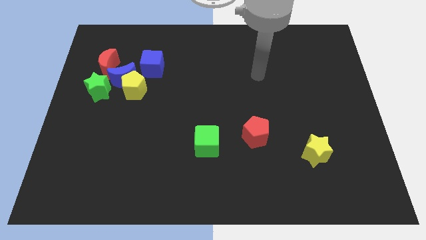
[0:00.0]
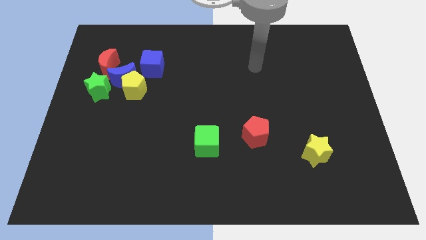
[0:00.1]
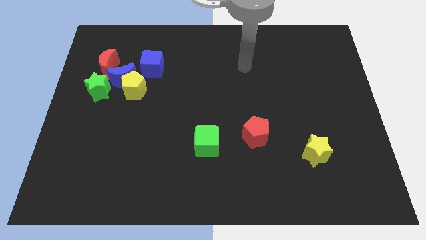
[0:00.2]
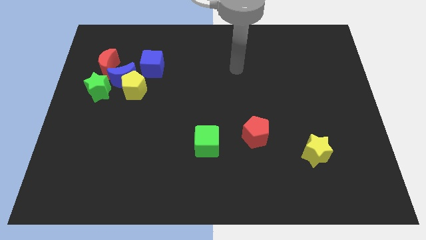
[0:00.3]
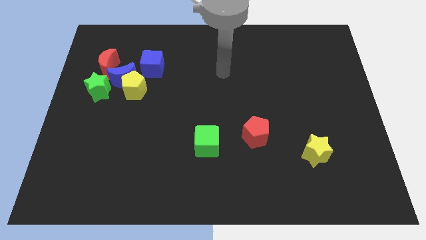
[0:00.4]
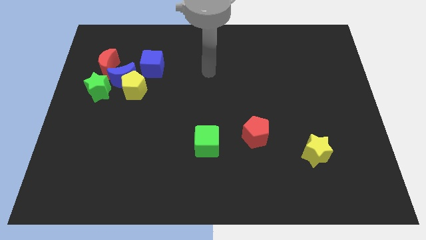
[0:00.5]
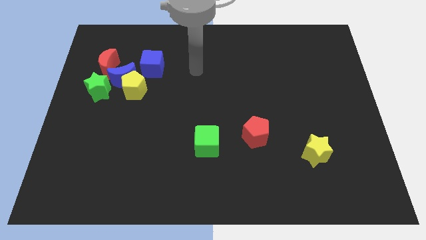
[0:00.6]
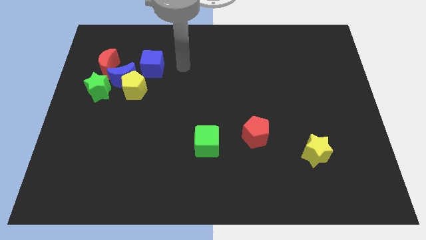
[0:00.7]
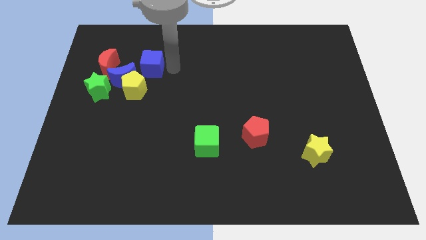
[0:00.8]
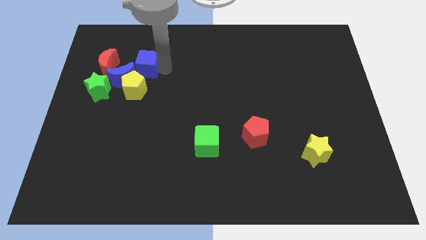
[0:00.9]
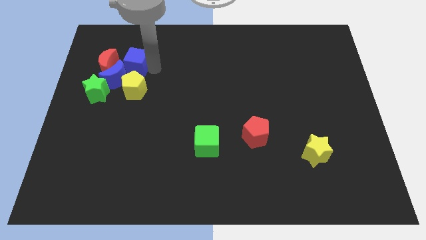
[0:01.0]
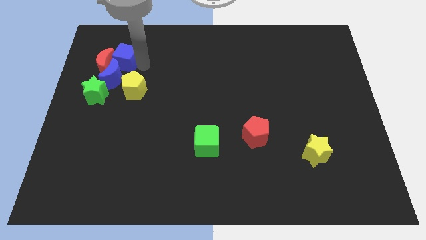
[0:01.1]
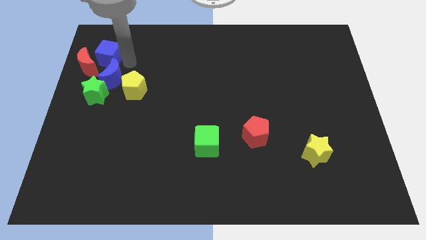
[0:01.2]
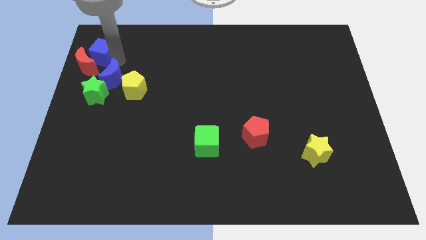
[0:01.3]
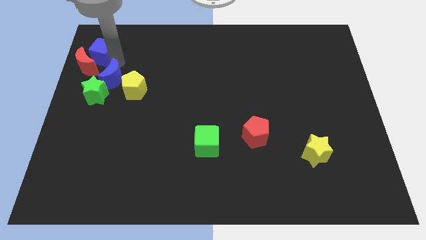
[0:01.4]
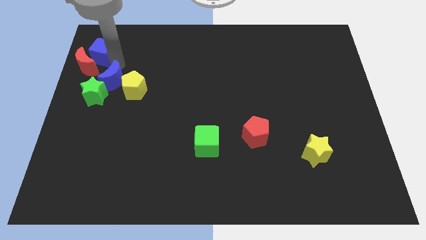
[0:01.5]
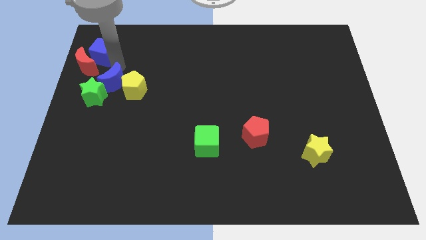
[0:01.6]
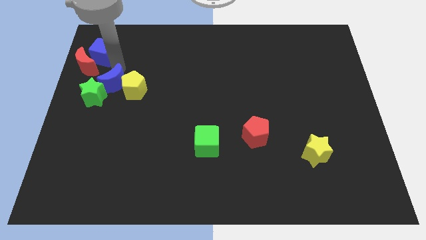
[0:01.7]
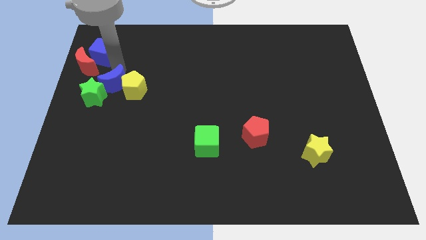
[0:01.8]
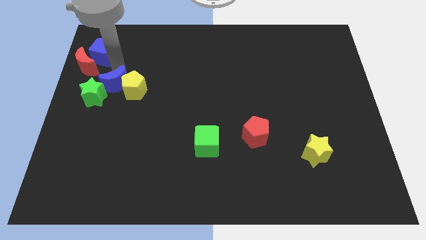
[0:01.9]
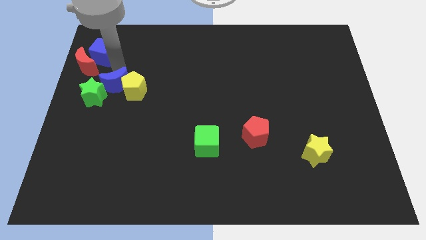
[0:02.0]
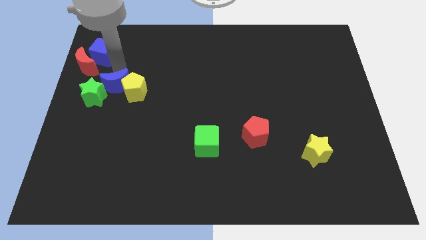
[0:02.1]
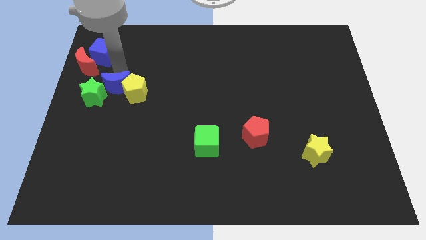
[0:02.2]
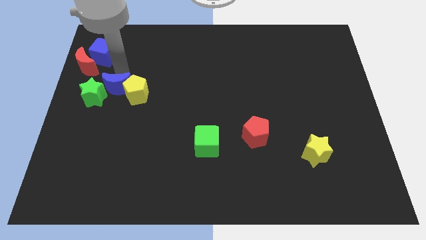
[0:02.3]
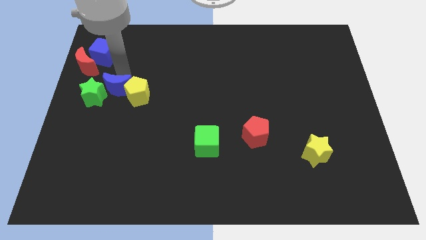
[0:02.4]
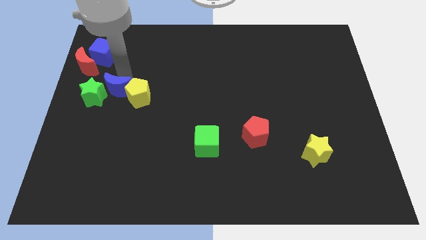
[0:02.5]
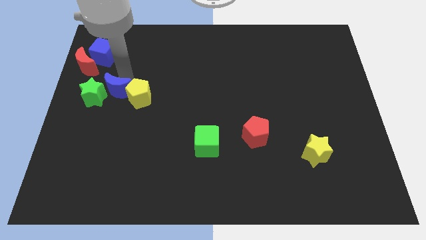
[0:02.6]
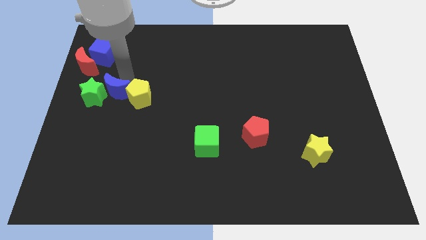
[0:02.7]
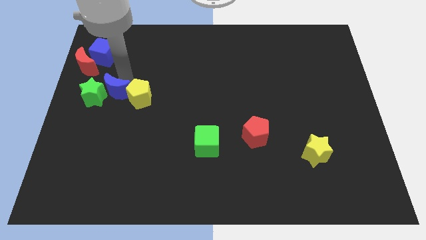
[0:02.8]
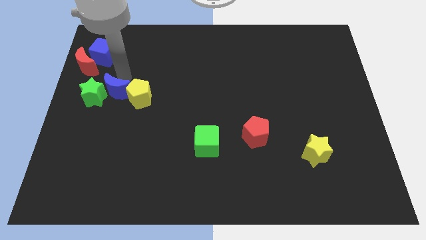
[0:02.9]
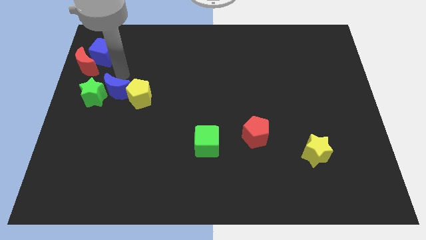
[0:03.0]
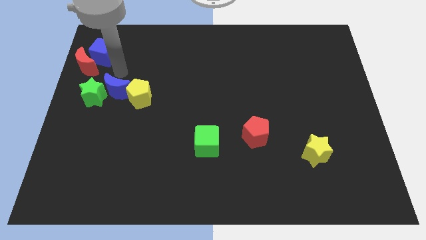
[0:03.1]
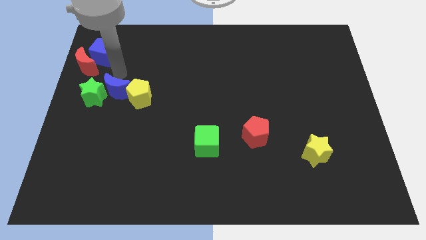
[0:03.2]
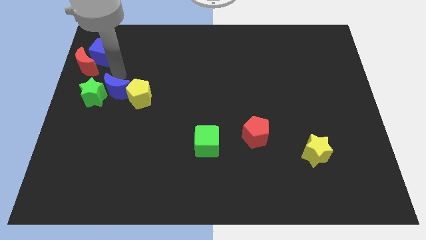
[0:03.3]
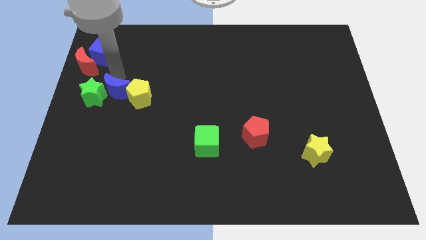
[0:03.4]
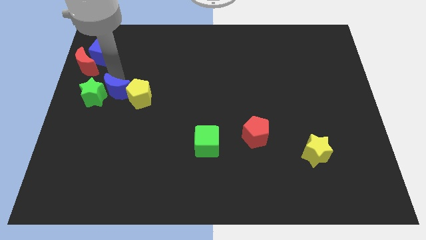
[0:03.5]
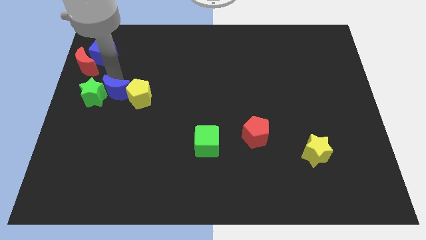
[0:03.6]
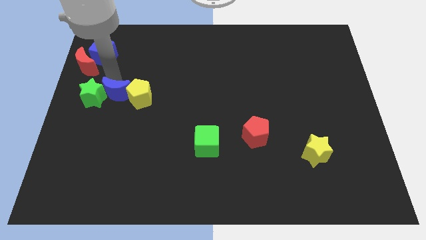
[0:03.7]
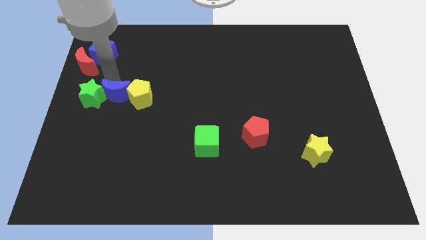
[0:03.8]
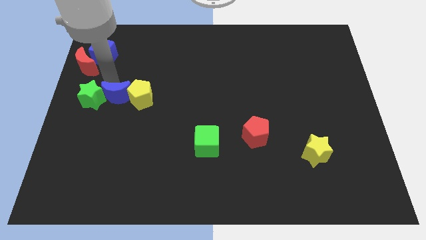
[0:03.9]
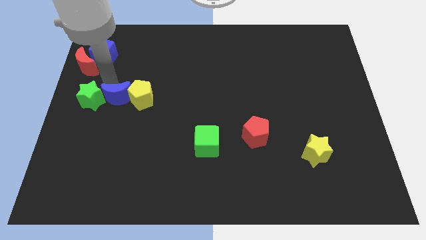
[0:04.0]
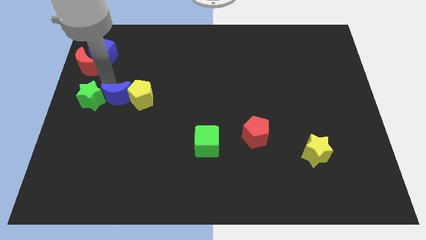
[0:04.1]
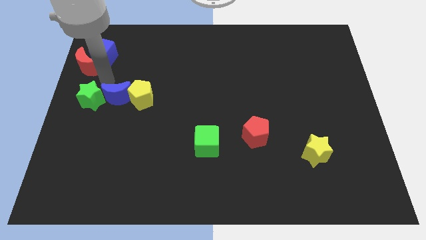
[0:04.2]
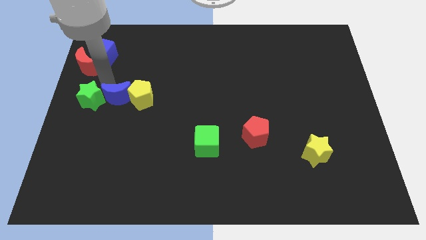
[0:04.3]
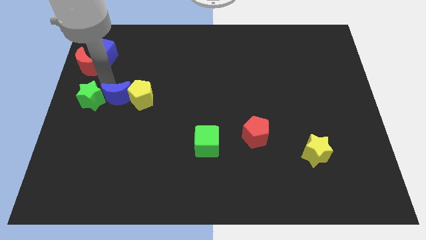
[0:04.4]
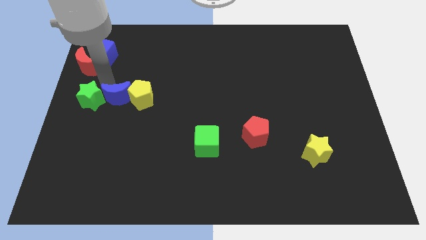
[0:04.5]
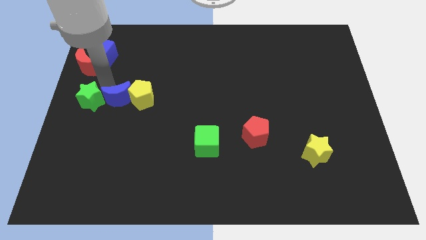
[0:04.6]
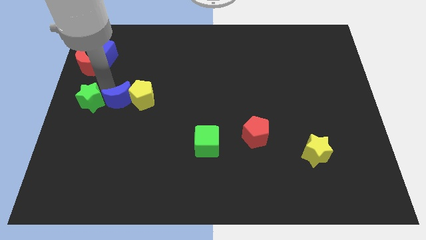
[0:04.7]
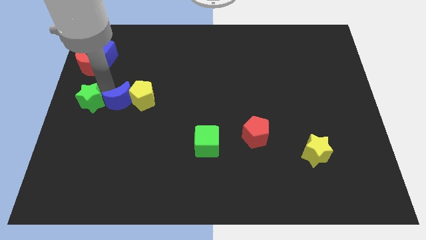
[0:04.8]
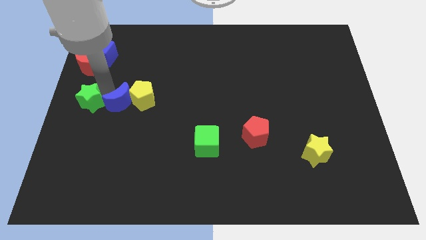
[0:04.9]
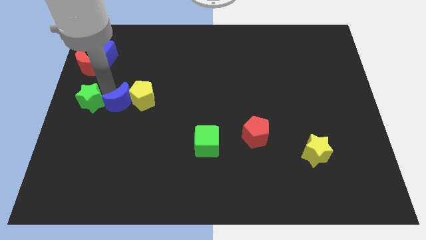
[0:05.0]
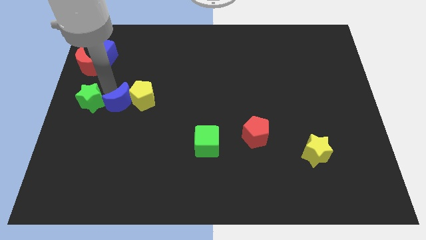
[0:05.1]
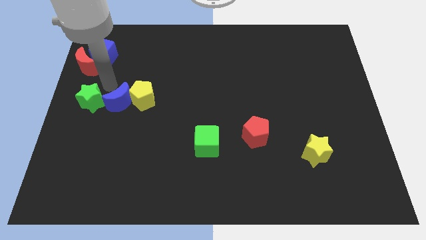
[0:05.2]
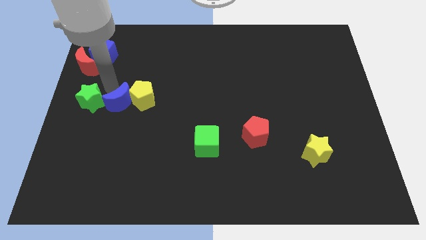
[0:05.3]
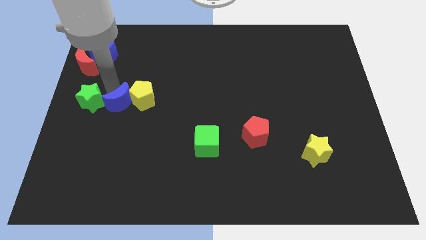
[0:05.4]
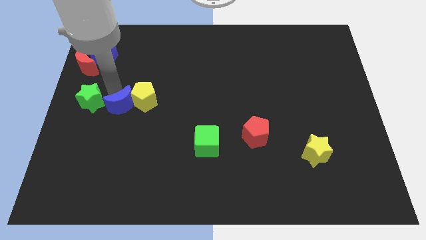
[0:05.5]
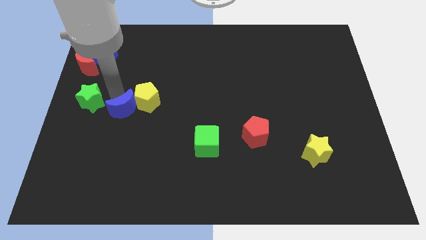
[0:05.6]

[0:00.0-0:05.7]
separate the blue moon from the group

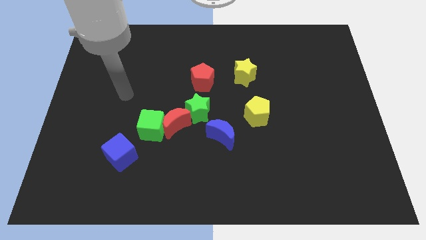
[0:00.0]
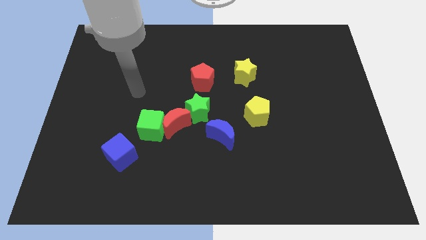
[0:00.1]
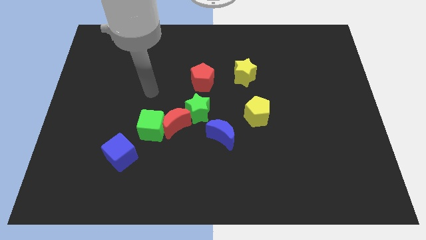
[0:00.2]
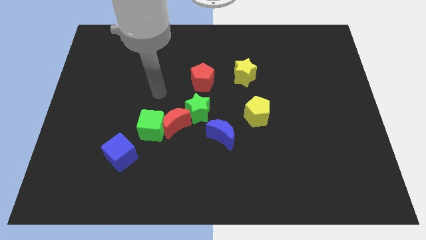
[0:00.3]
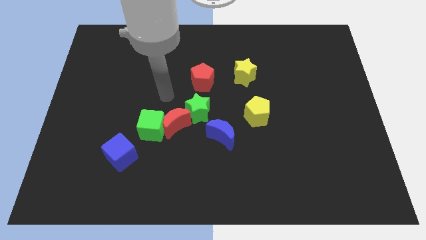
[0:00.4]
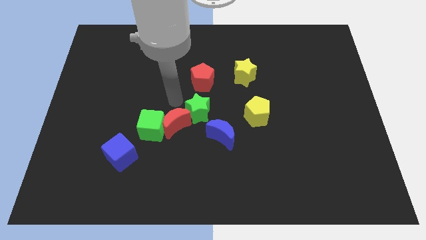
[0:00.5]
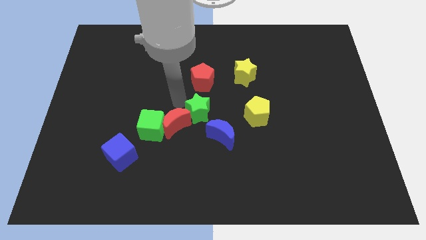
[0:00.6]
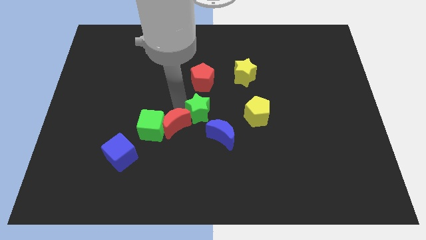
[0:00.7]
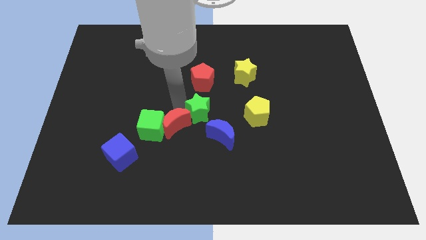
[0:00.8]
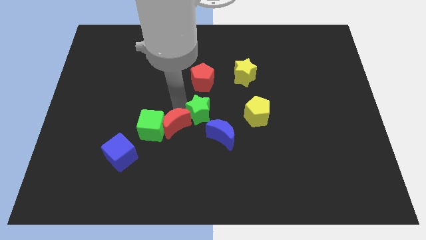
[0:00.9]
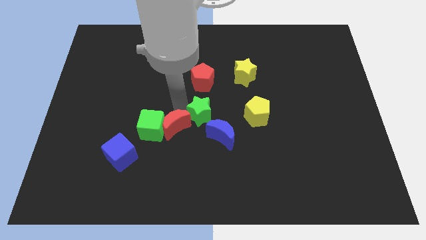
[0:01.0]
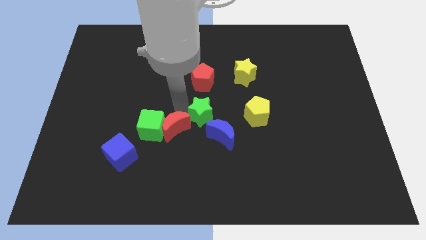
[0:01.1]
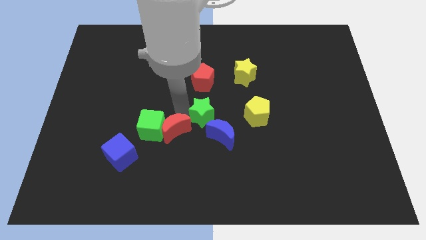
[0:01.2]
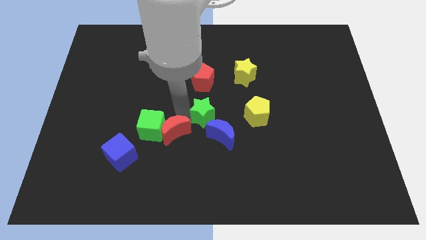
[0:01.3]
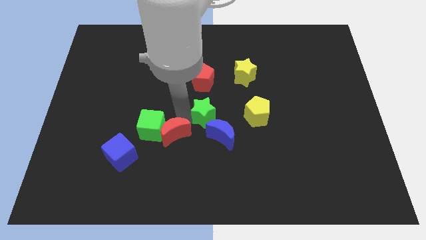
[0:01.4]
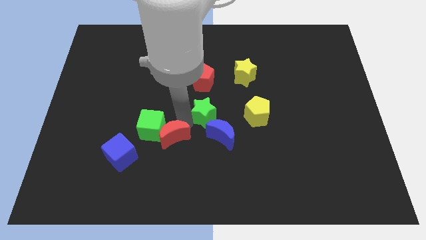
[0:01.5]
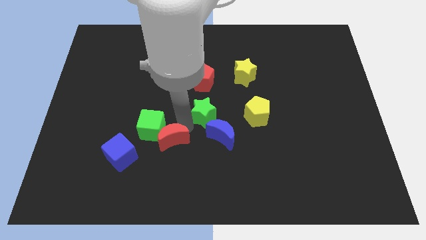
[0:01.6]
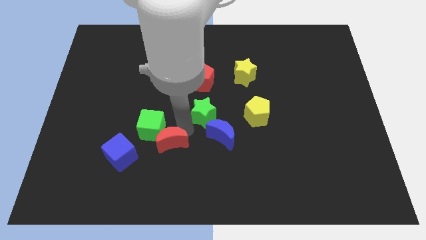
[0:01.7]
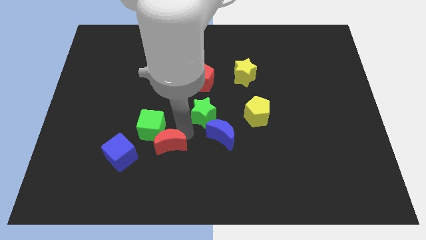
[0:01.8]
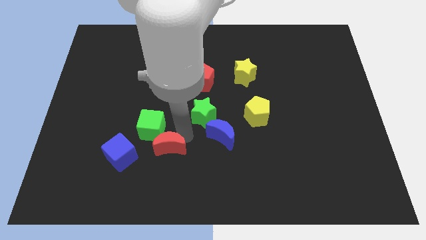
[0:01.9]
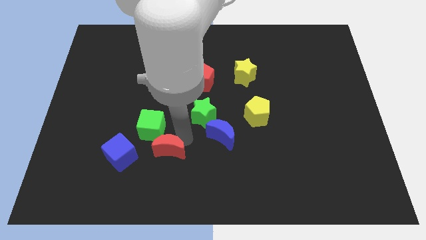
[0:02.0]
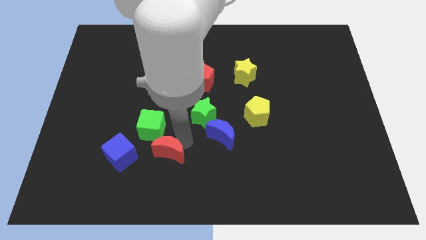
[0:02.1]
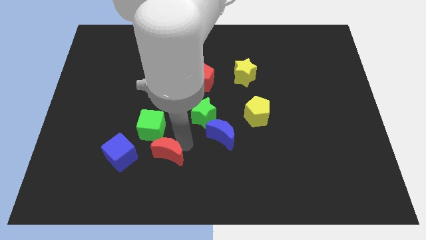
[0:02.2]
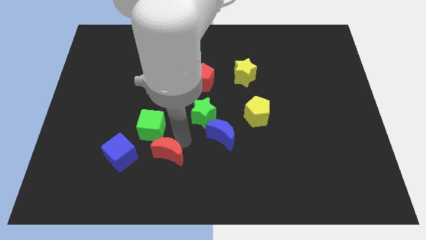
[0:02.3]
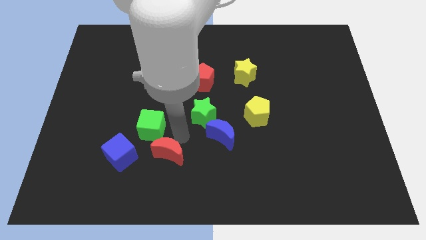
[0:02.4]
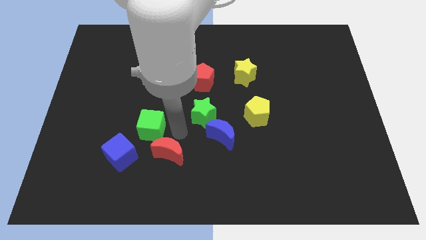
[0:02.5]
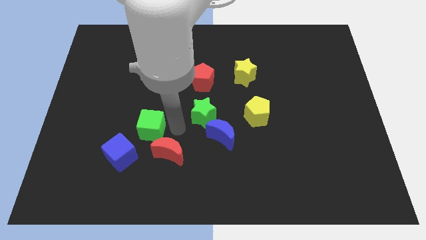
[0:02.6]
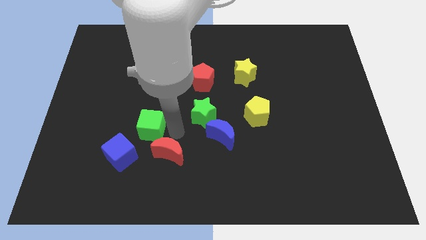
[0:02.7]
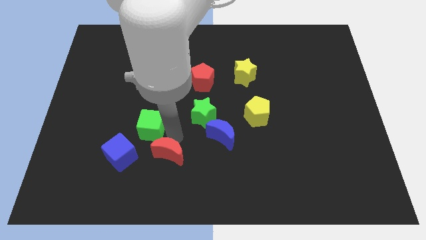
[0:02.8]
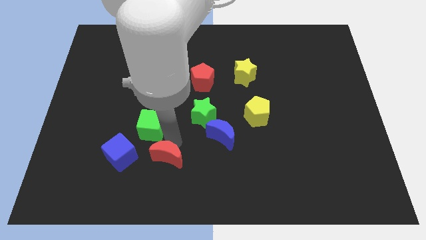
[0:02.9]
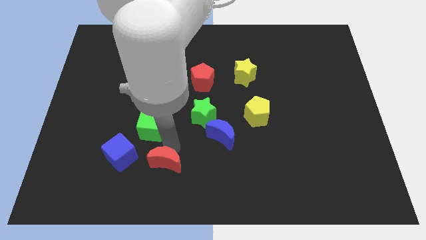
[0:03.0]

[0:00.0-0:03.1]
pull the red moon apart from the green cube and green star

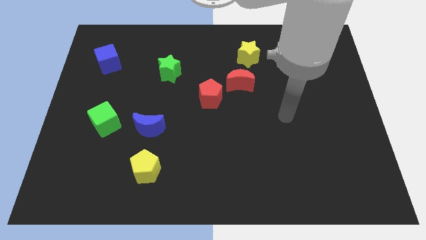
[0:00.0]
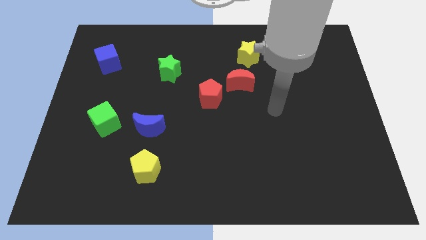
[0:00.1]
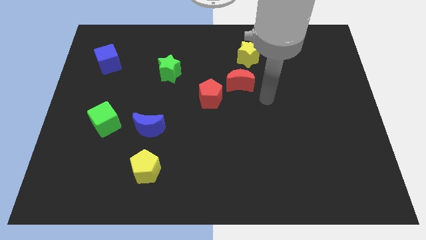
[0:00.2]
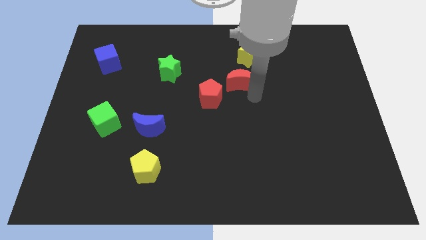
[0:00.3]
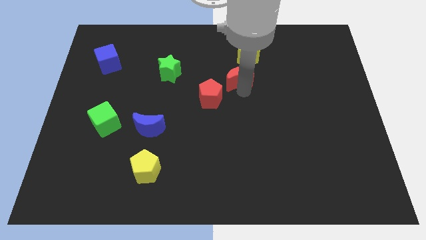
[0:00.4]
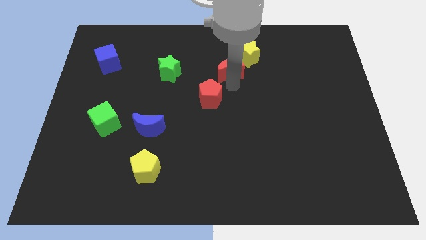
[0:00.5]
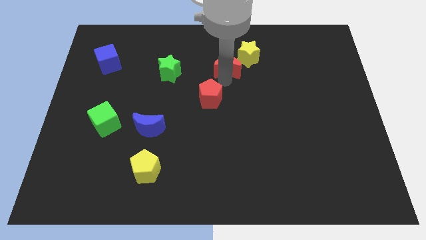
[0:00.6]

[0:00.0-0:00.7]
separate the red pentagon from the red moon
